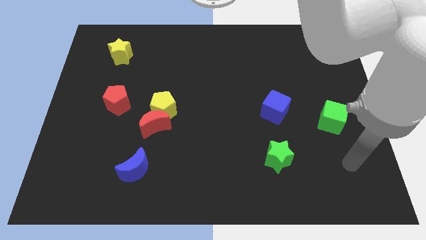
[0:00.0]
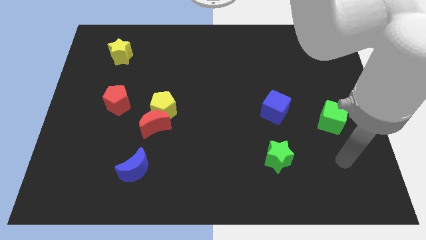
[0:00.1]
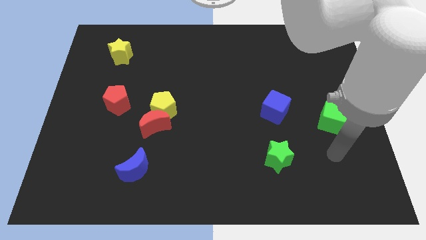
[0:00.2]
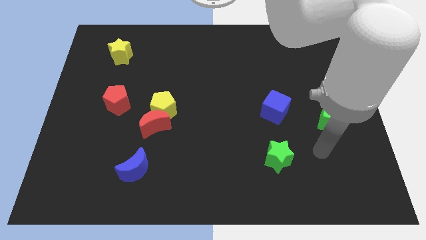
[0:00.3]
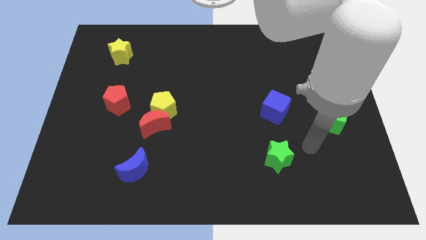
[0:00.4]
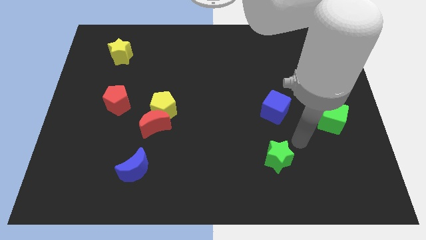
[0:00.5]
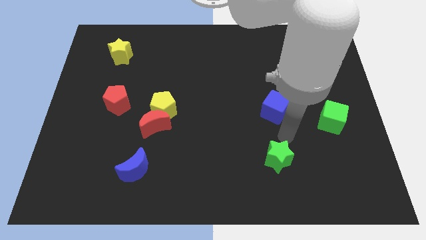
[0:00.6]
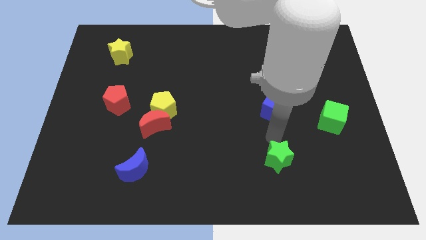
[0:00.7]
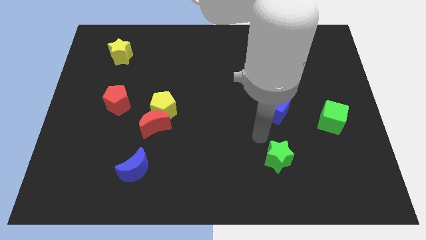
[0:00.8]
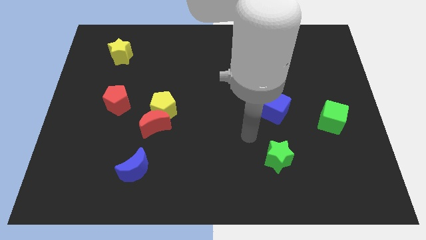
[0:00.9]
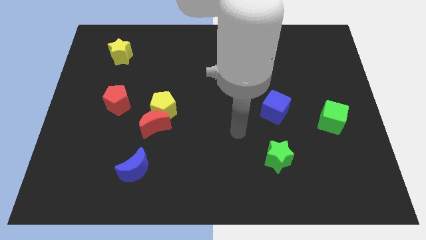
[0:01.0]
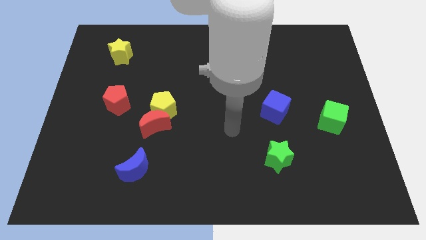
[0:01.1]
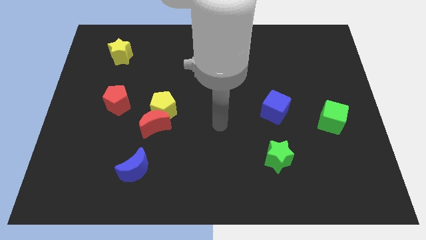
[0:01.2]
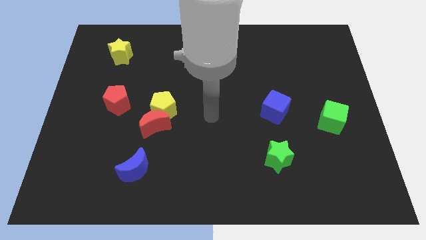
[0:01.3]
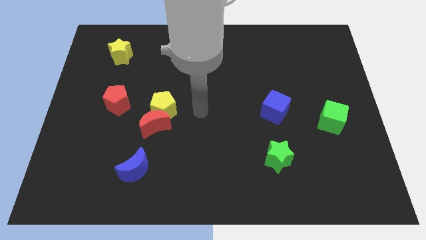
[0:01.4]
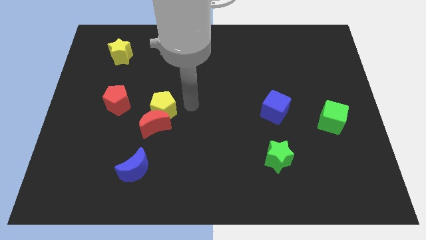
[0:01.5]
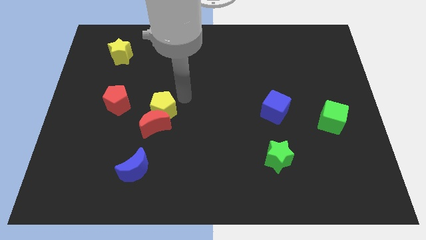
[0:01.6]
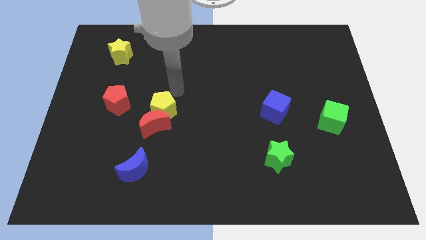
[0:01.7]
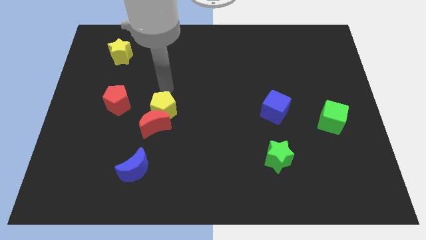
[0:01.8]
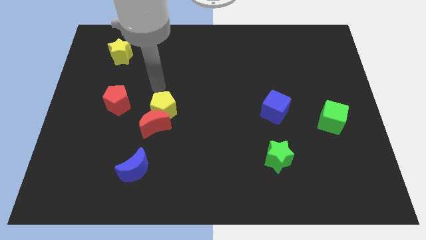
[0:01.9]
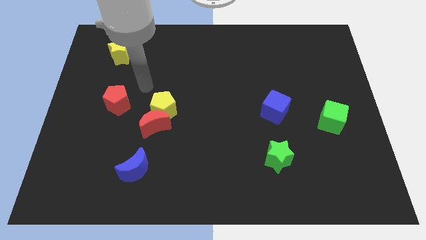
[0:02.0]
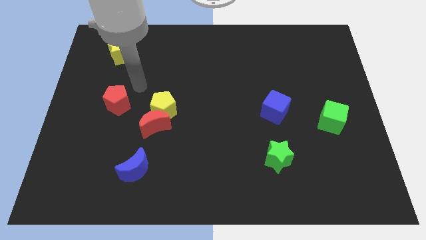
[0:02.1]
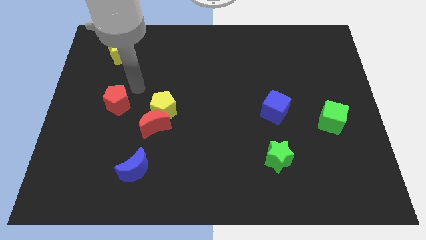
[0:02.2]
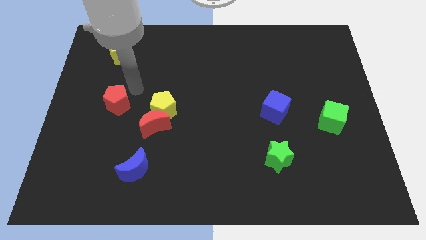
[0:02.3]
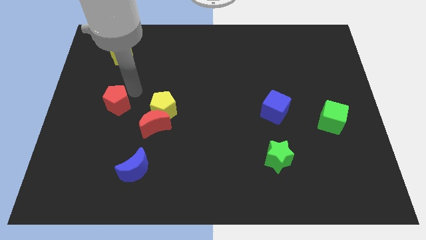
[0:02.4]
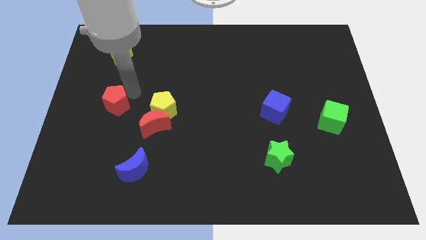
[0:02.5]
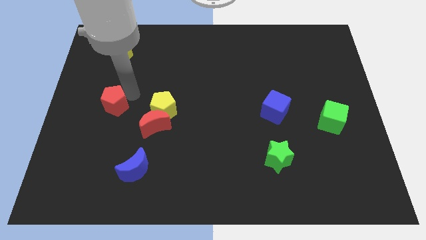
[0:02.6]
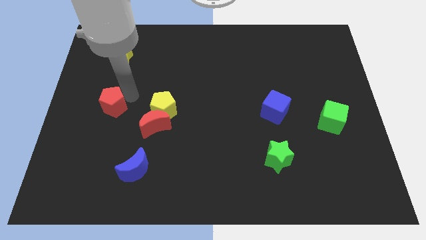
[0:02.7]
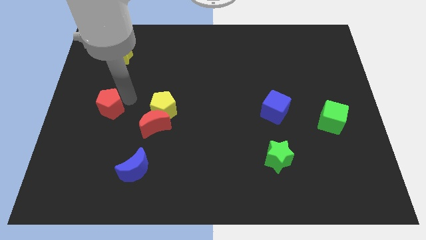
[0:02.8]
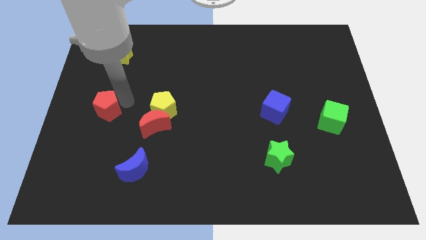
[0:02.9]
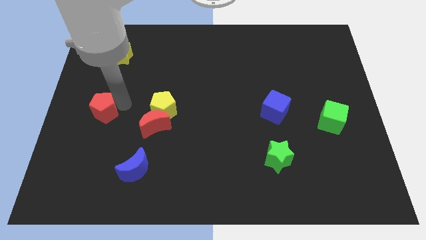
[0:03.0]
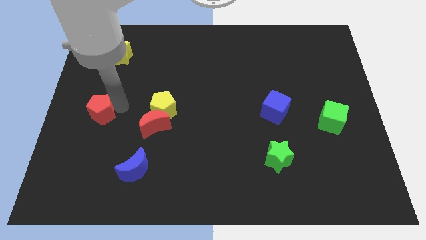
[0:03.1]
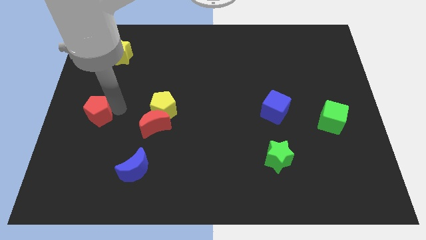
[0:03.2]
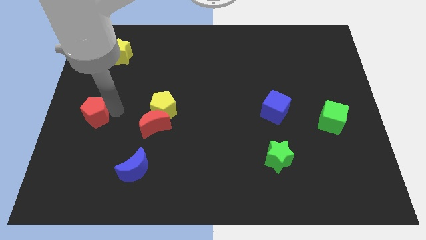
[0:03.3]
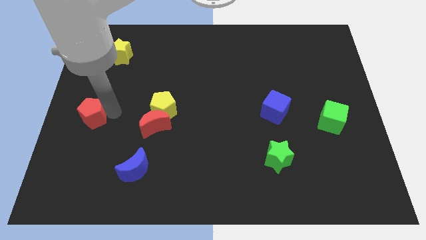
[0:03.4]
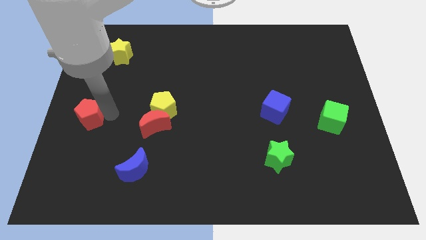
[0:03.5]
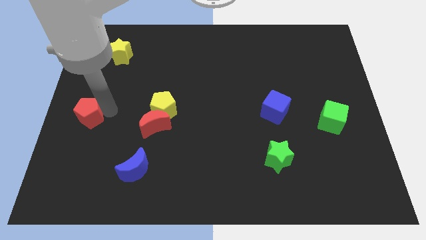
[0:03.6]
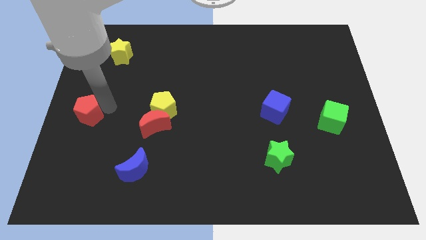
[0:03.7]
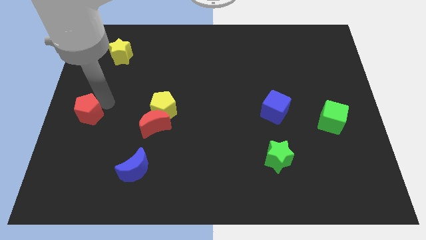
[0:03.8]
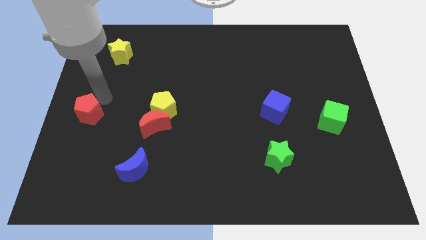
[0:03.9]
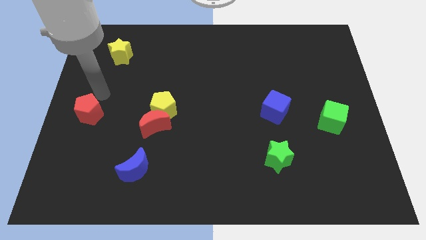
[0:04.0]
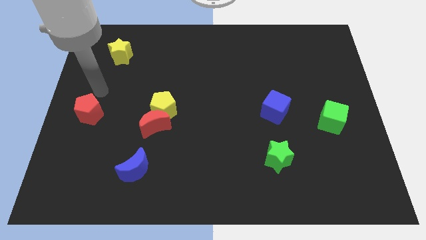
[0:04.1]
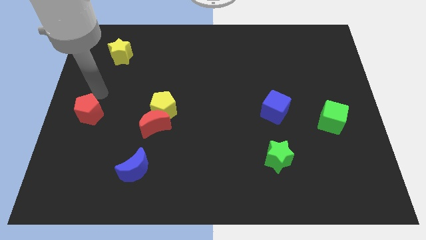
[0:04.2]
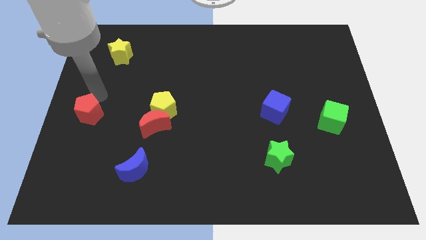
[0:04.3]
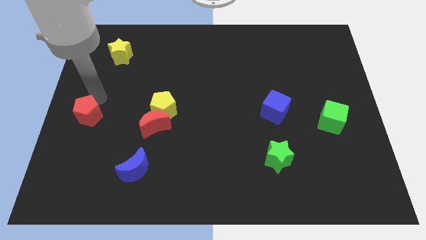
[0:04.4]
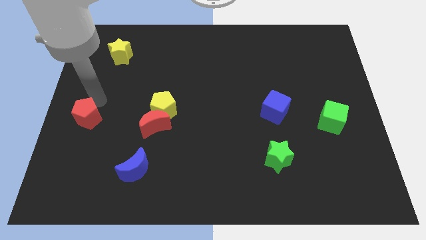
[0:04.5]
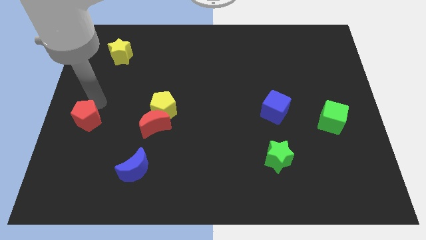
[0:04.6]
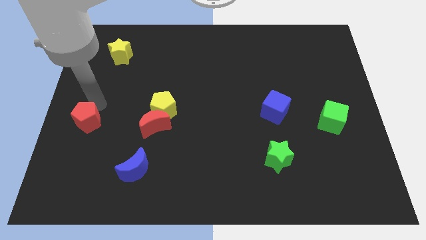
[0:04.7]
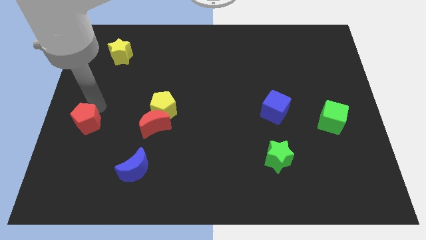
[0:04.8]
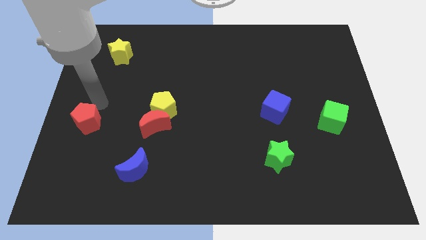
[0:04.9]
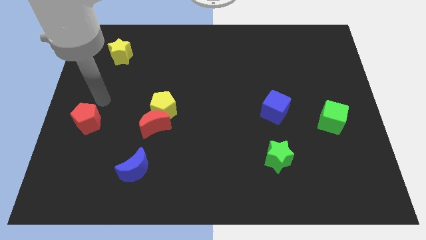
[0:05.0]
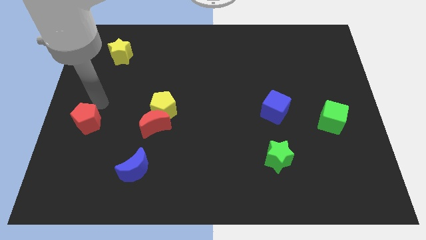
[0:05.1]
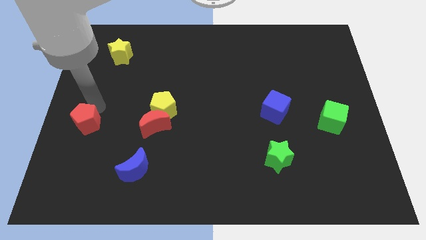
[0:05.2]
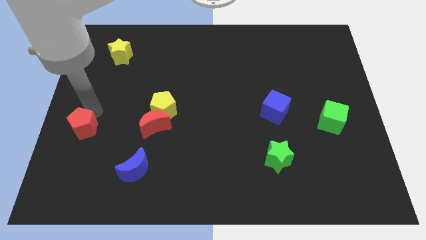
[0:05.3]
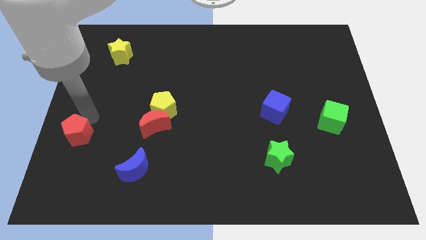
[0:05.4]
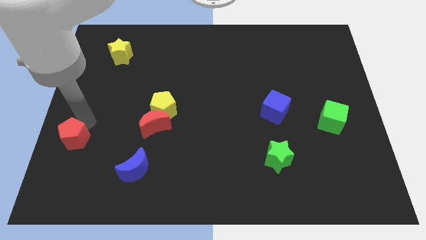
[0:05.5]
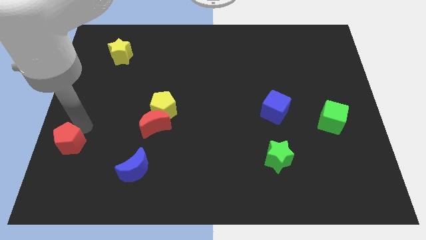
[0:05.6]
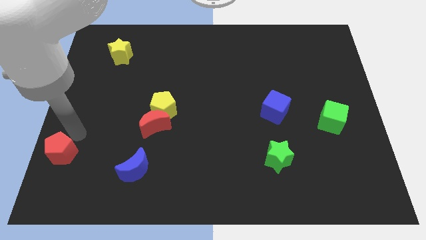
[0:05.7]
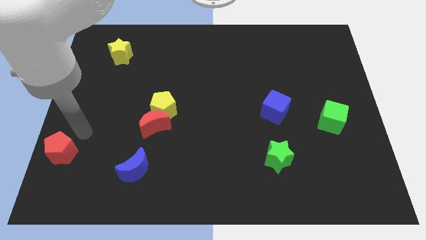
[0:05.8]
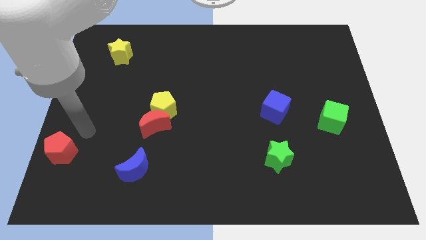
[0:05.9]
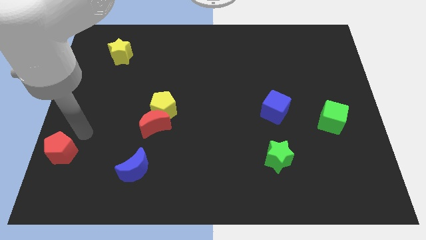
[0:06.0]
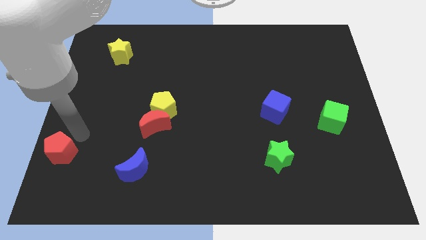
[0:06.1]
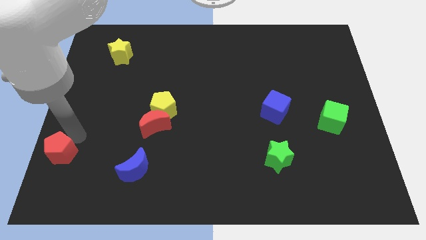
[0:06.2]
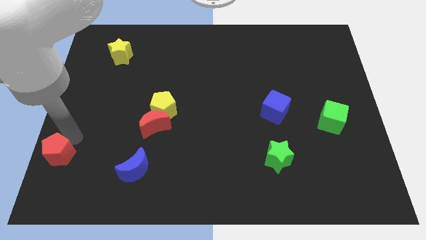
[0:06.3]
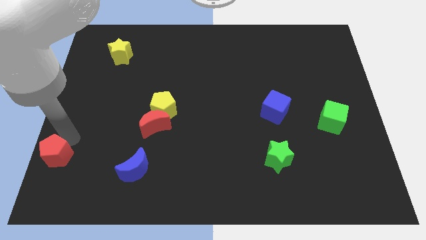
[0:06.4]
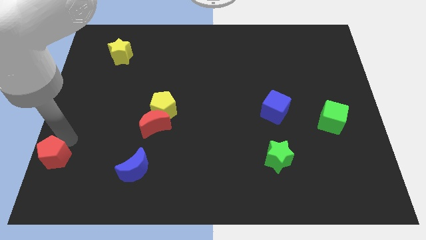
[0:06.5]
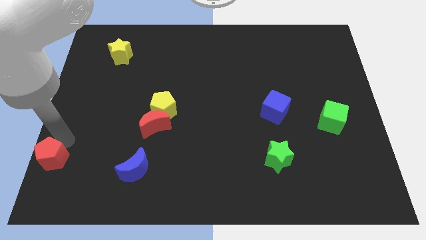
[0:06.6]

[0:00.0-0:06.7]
slide the red pentagon to the lower left corner
